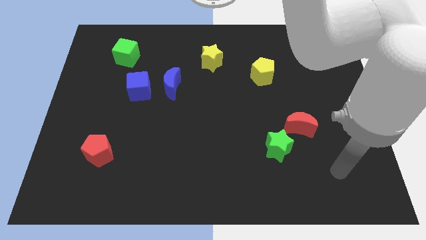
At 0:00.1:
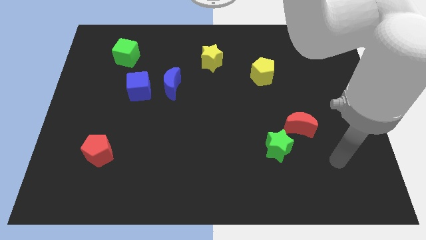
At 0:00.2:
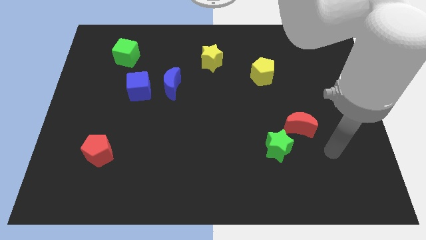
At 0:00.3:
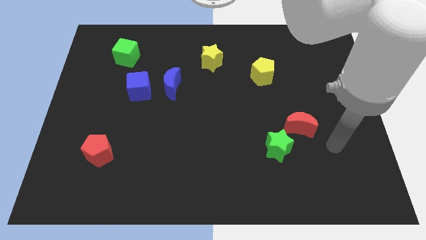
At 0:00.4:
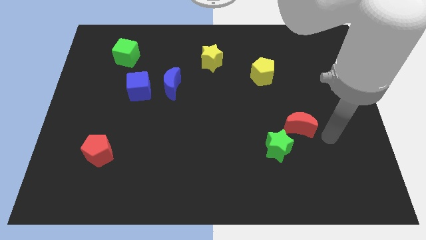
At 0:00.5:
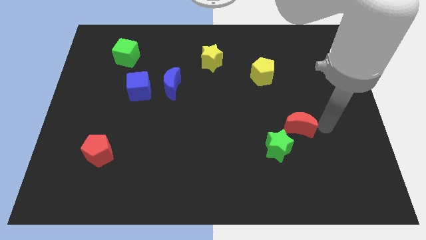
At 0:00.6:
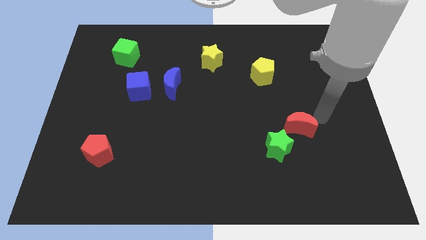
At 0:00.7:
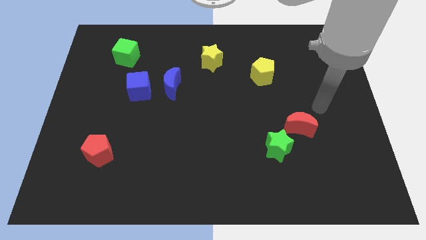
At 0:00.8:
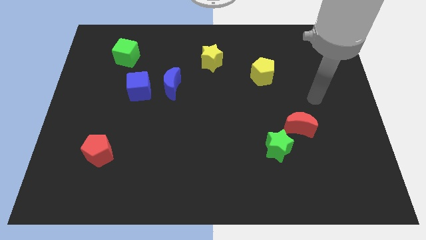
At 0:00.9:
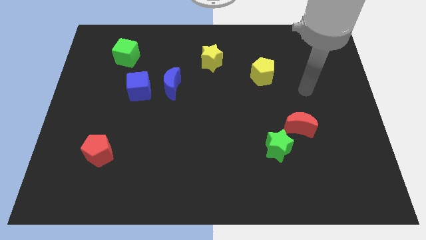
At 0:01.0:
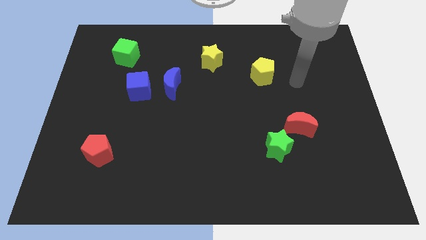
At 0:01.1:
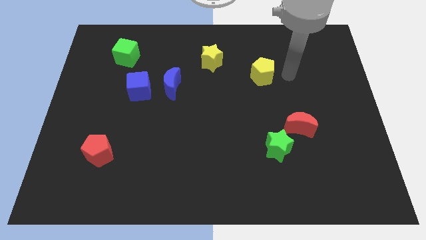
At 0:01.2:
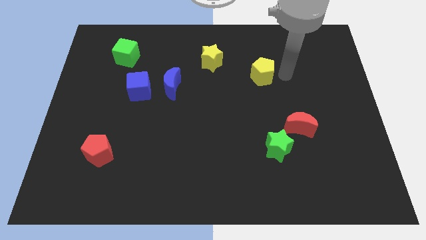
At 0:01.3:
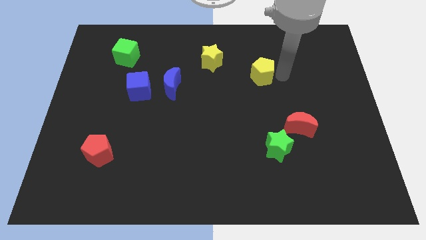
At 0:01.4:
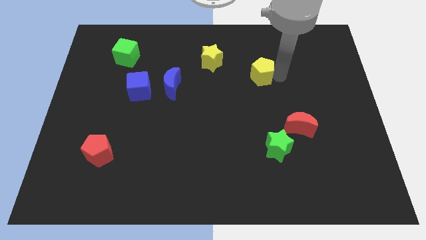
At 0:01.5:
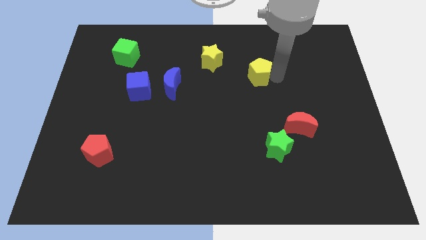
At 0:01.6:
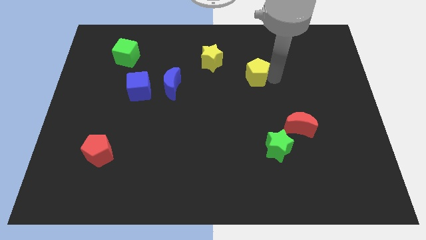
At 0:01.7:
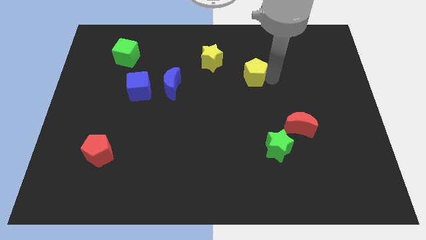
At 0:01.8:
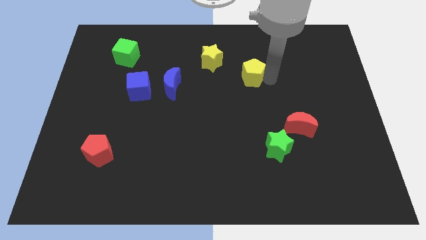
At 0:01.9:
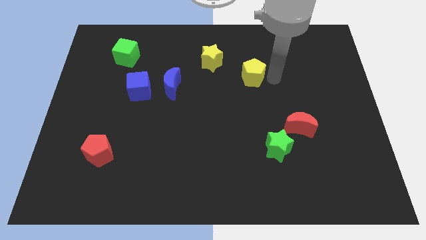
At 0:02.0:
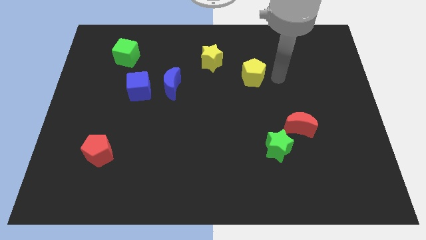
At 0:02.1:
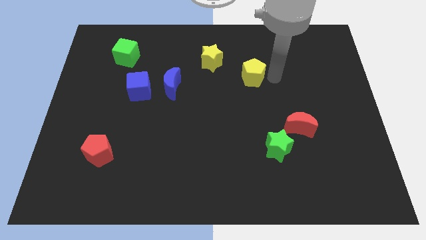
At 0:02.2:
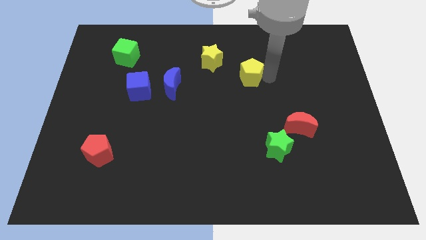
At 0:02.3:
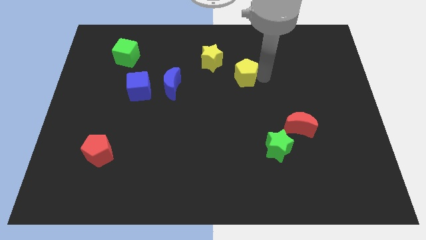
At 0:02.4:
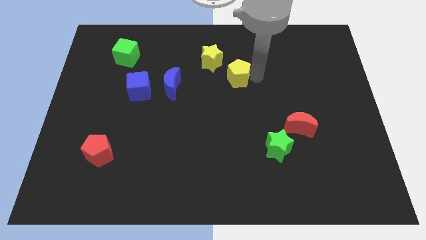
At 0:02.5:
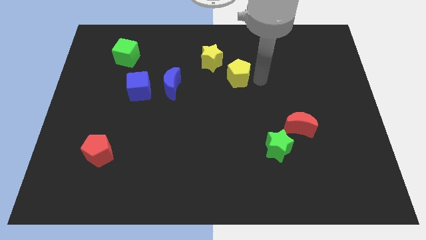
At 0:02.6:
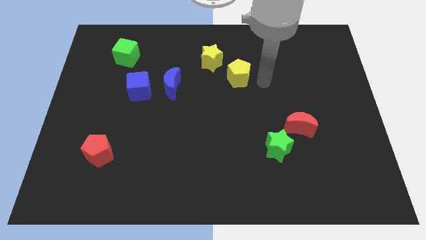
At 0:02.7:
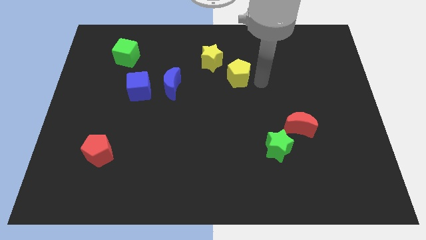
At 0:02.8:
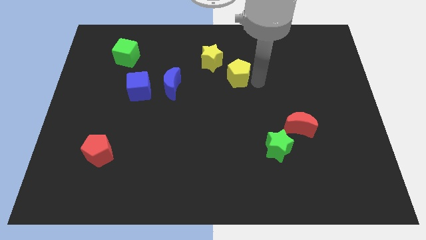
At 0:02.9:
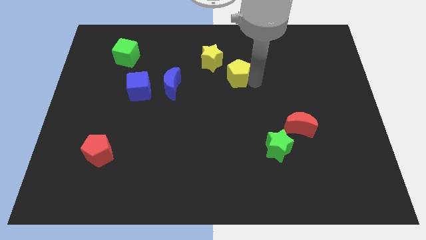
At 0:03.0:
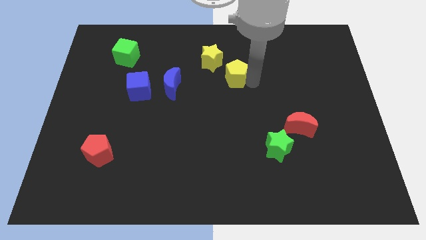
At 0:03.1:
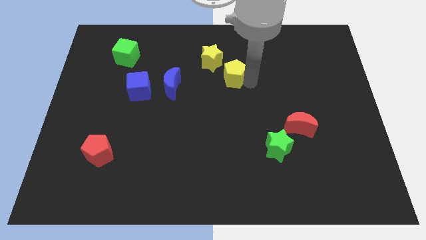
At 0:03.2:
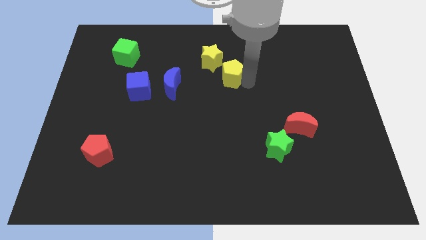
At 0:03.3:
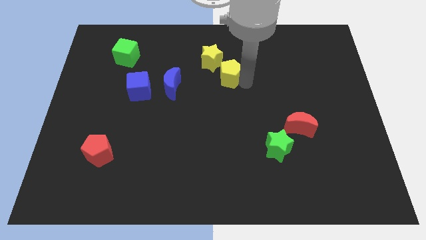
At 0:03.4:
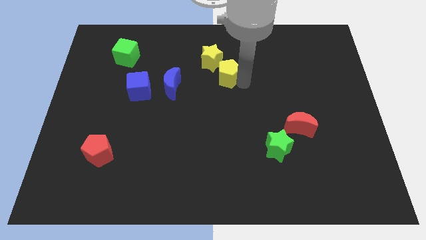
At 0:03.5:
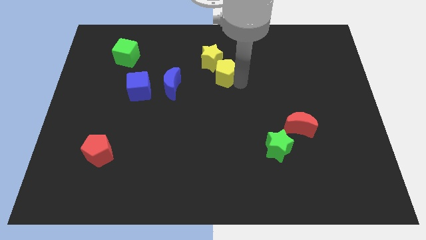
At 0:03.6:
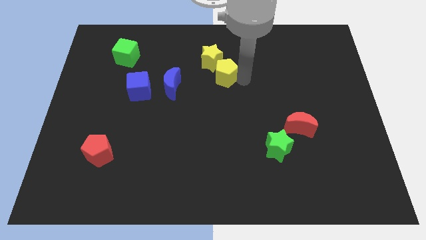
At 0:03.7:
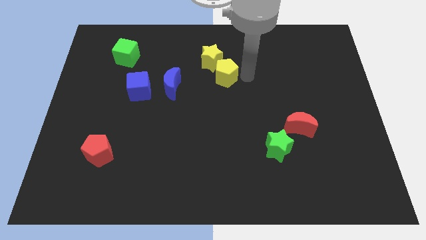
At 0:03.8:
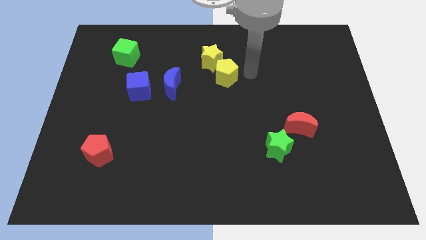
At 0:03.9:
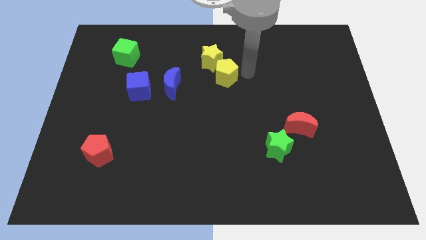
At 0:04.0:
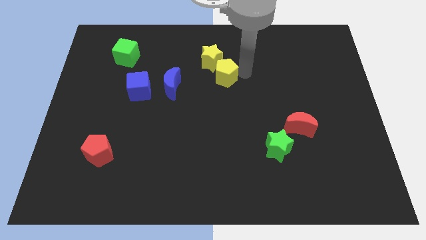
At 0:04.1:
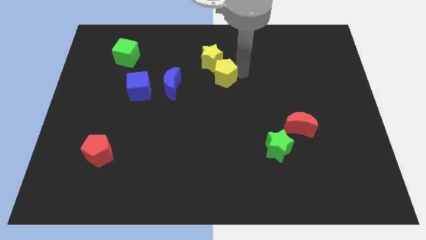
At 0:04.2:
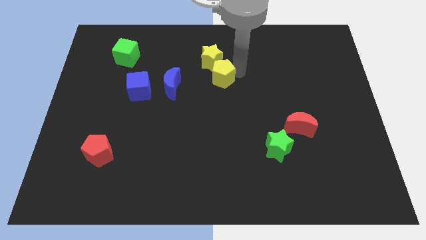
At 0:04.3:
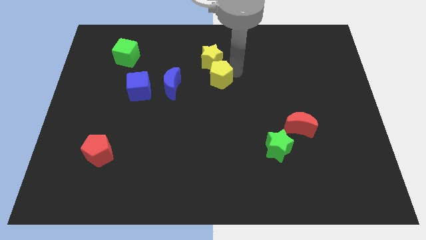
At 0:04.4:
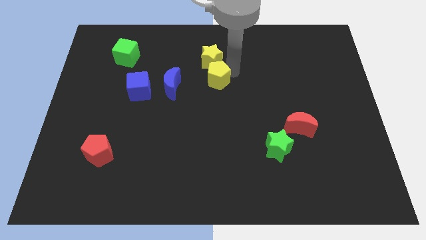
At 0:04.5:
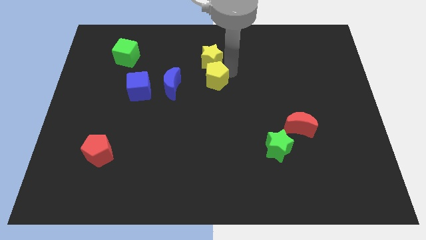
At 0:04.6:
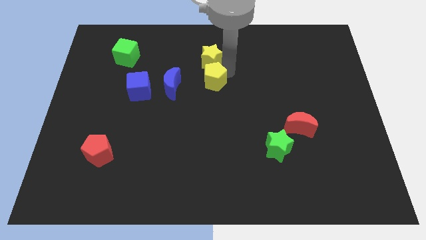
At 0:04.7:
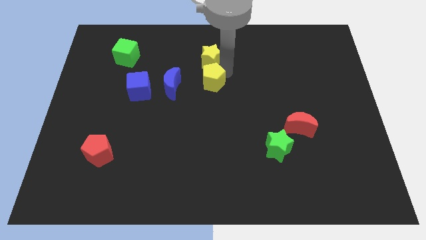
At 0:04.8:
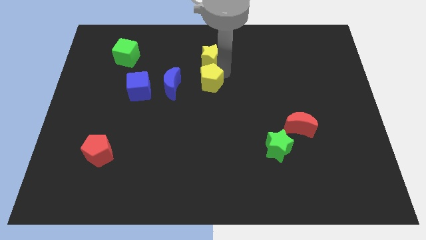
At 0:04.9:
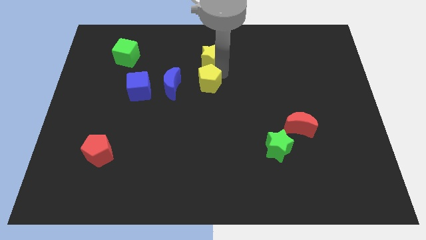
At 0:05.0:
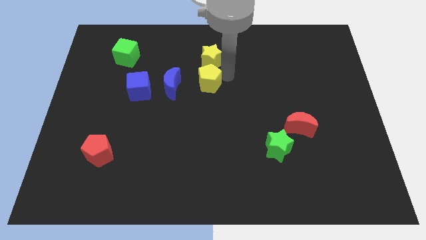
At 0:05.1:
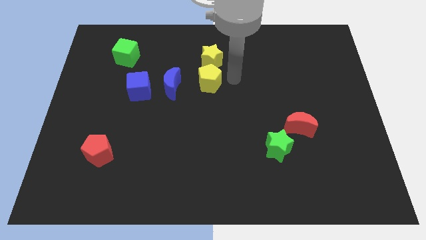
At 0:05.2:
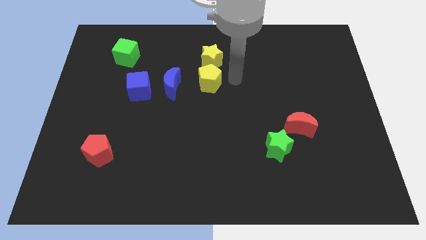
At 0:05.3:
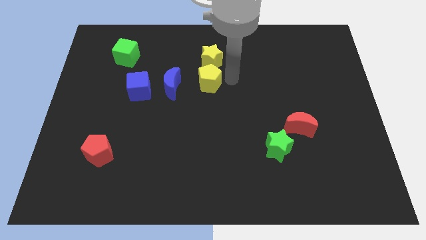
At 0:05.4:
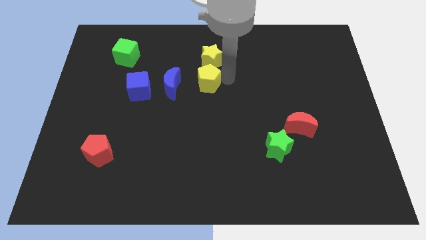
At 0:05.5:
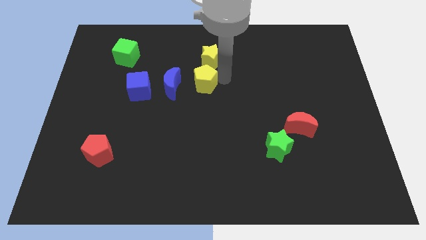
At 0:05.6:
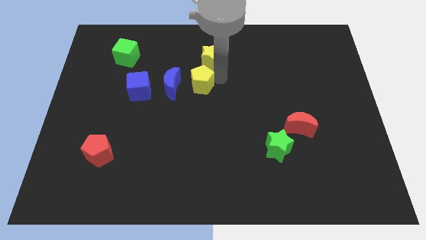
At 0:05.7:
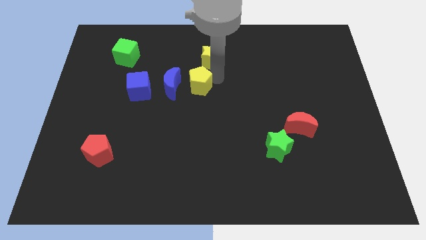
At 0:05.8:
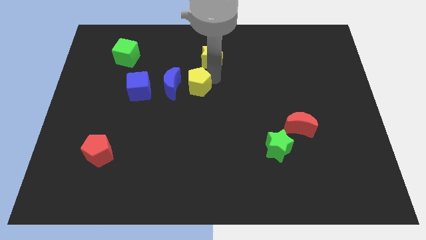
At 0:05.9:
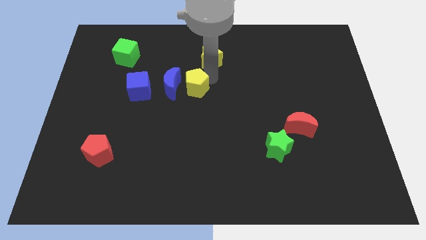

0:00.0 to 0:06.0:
put the yellow pentagon to the blue moon

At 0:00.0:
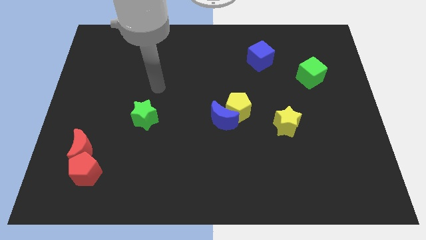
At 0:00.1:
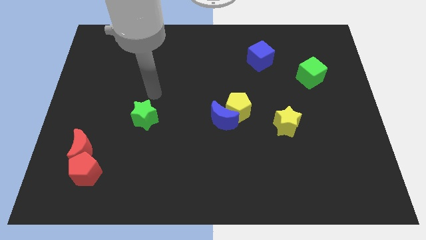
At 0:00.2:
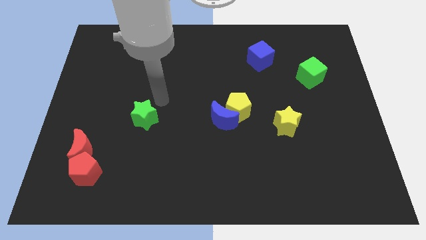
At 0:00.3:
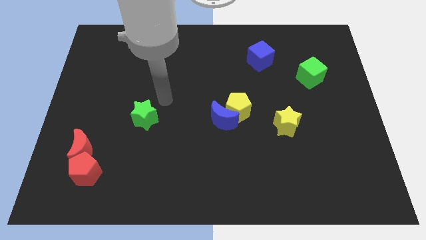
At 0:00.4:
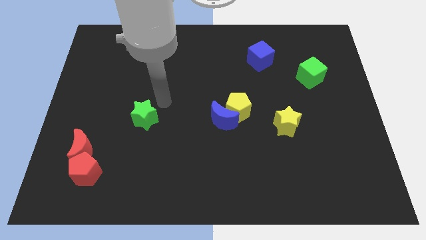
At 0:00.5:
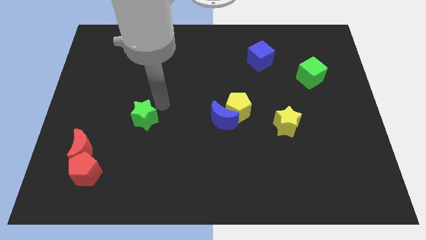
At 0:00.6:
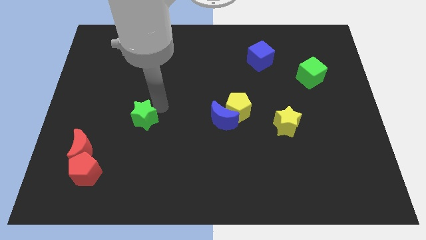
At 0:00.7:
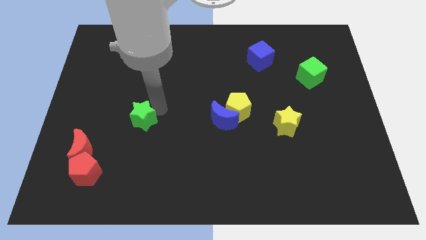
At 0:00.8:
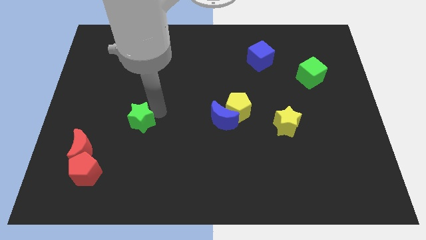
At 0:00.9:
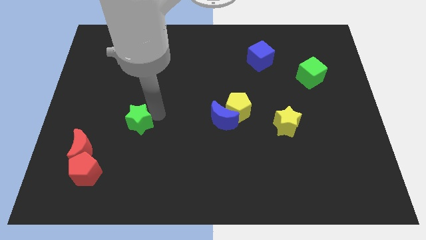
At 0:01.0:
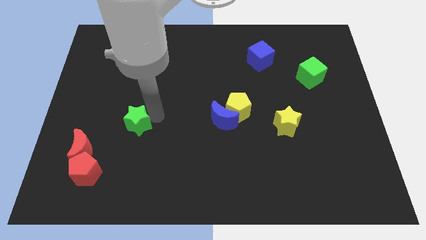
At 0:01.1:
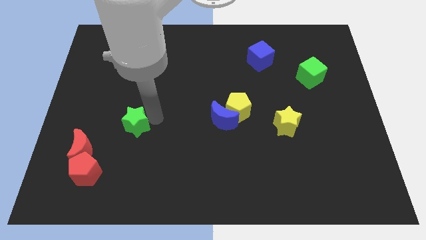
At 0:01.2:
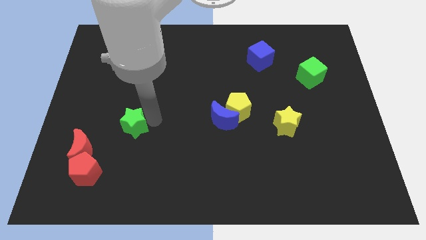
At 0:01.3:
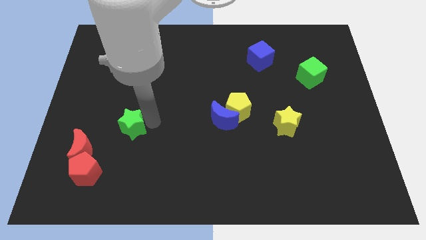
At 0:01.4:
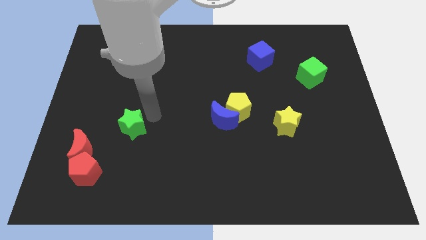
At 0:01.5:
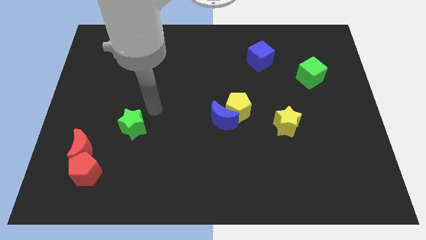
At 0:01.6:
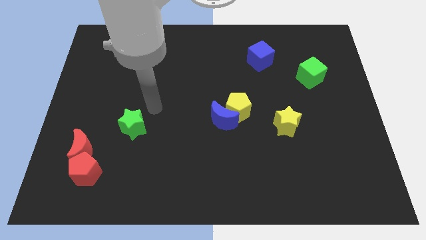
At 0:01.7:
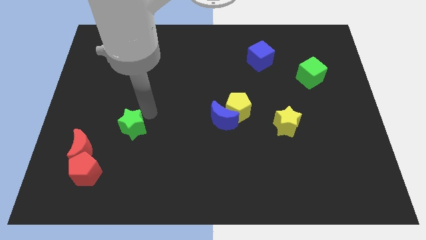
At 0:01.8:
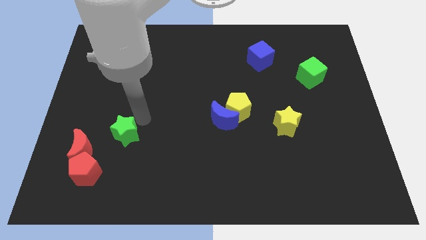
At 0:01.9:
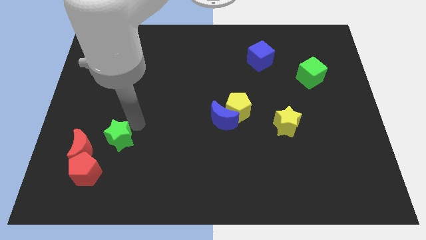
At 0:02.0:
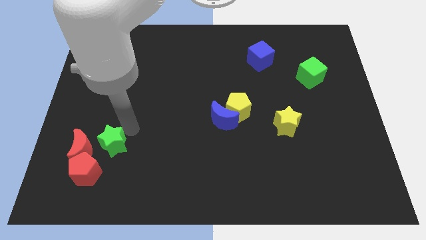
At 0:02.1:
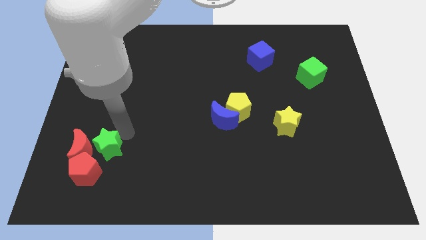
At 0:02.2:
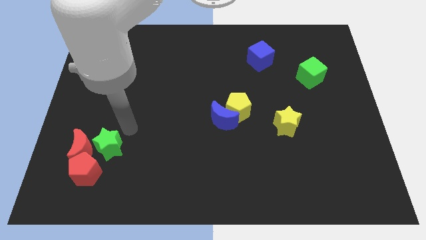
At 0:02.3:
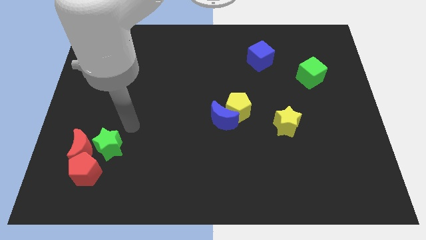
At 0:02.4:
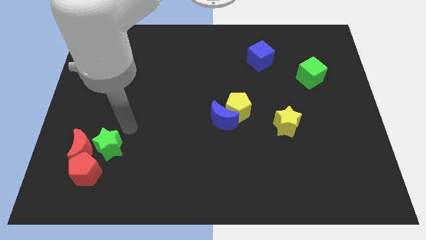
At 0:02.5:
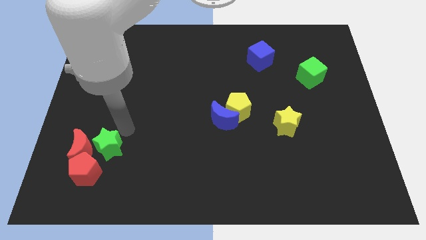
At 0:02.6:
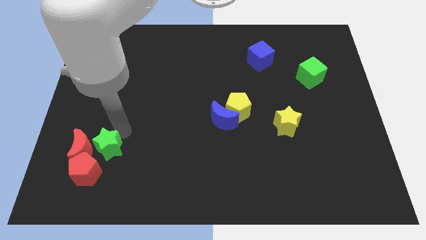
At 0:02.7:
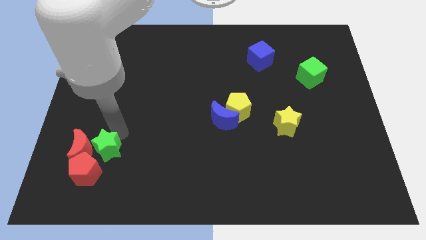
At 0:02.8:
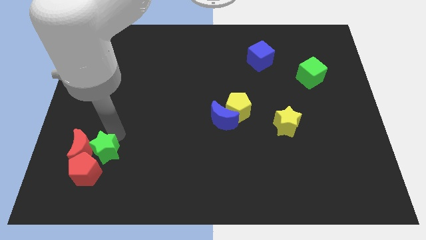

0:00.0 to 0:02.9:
move the green star close to the red pentagon
